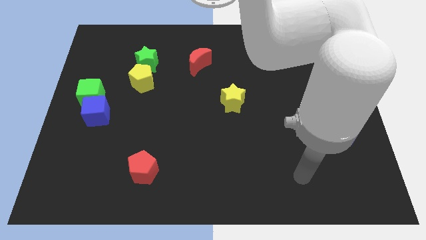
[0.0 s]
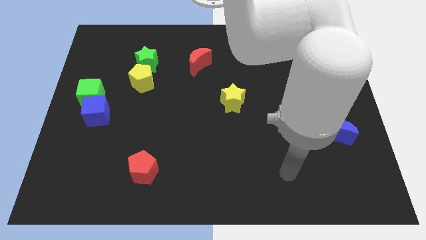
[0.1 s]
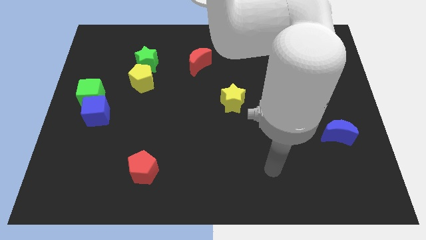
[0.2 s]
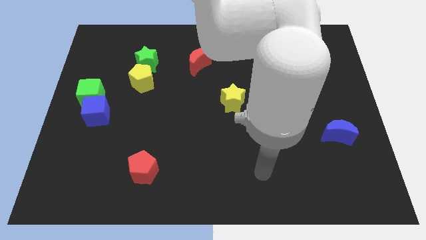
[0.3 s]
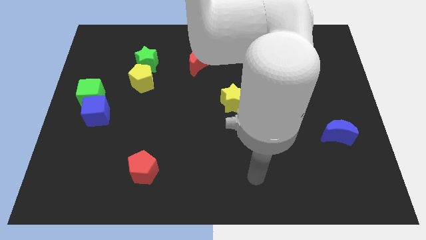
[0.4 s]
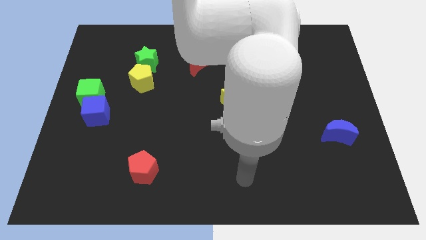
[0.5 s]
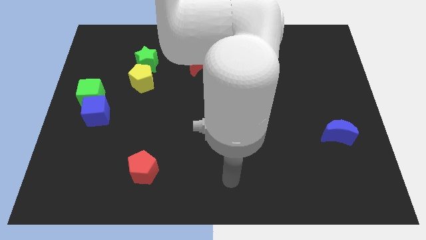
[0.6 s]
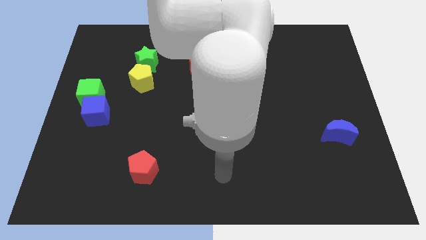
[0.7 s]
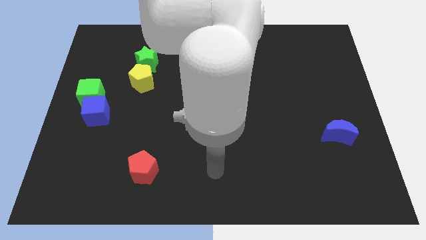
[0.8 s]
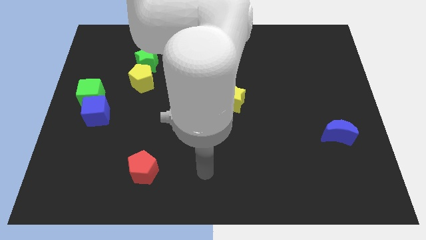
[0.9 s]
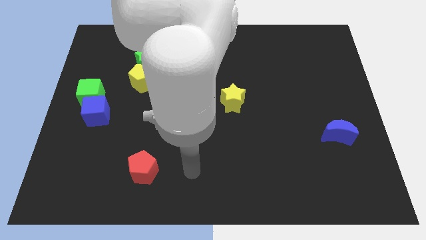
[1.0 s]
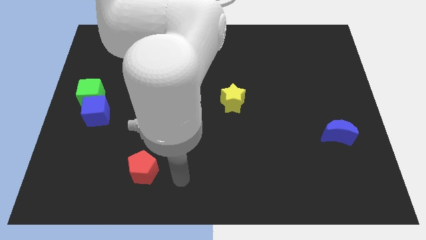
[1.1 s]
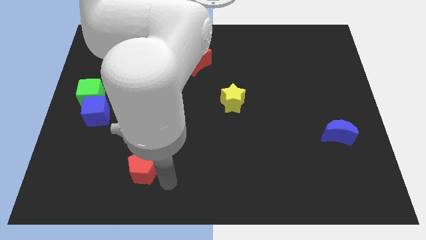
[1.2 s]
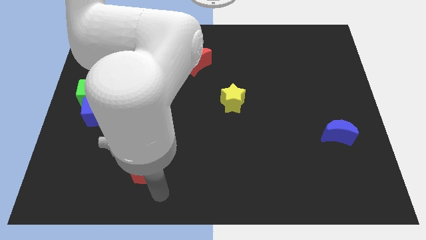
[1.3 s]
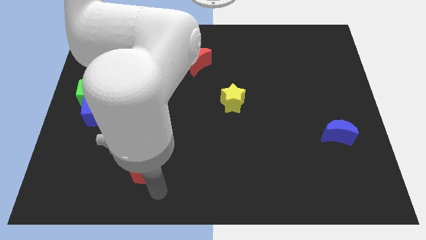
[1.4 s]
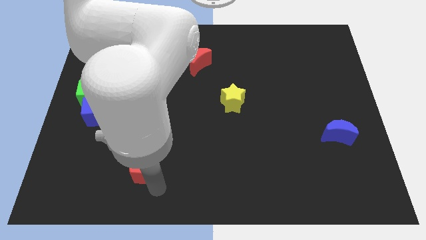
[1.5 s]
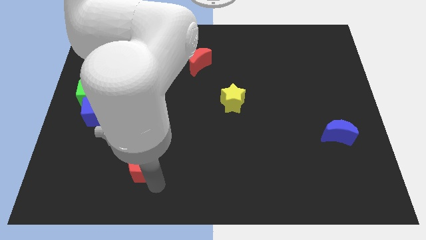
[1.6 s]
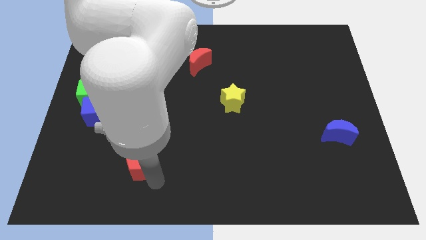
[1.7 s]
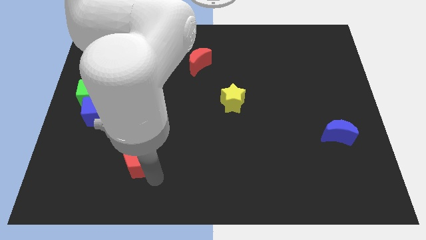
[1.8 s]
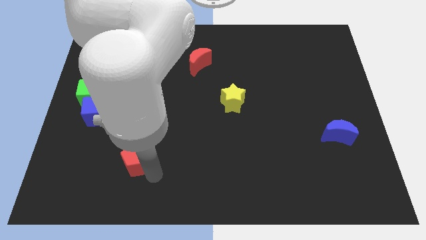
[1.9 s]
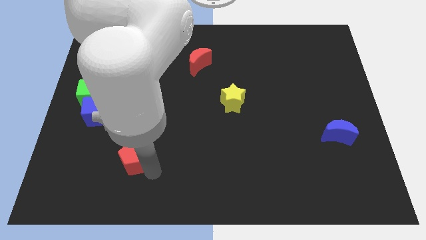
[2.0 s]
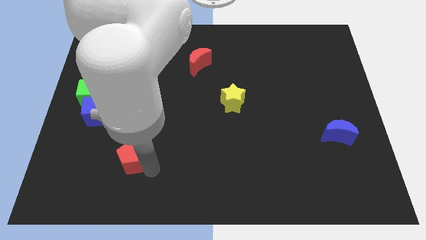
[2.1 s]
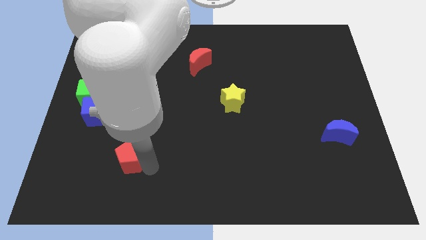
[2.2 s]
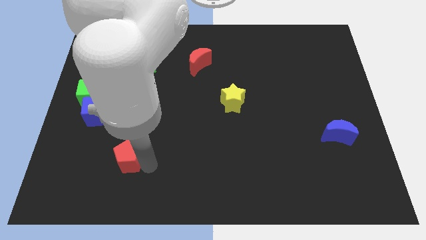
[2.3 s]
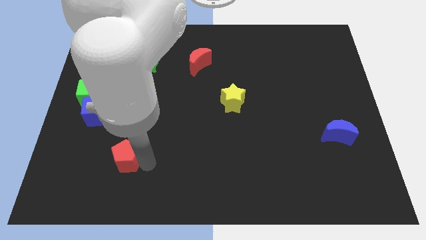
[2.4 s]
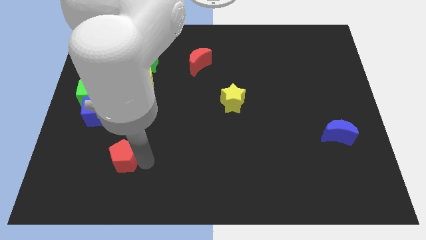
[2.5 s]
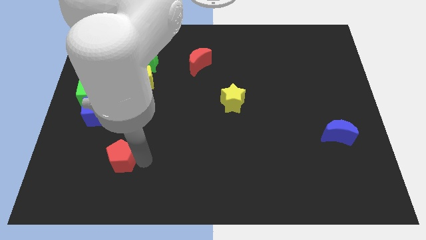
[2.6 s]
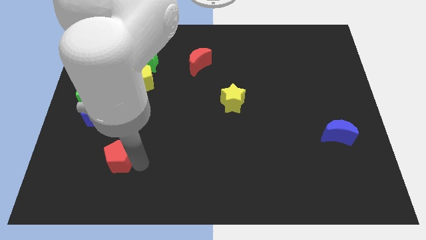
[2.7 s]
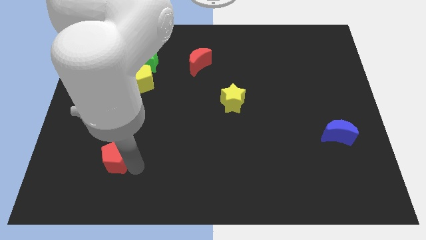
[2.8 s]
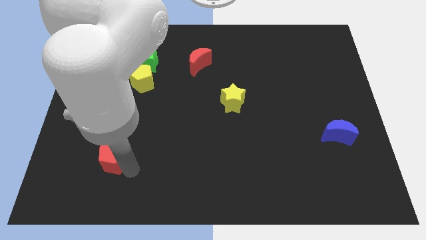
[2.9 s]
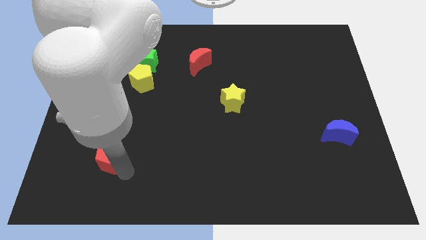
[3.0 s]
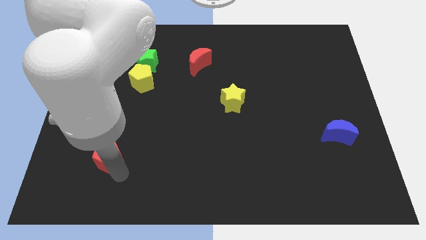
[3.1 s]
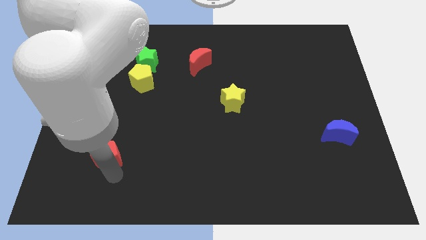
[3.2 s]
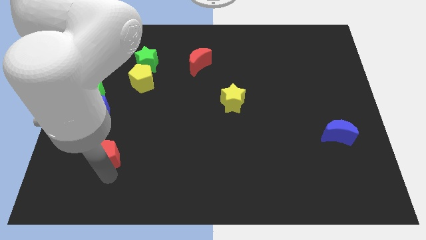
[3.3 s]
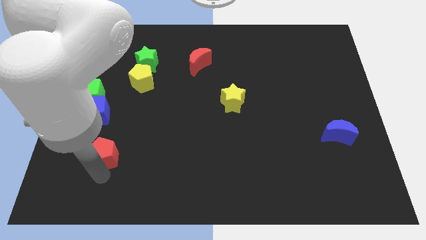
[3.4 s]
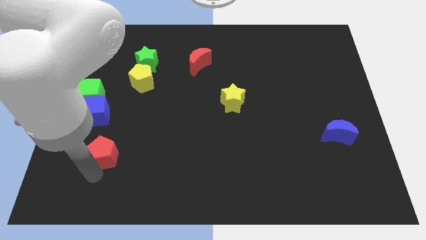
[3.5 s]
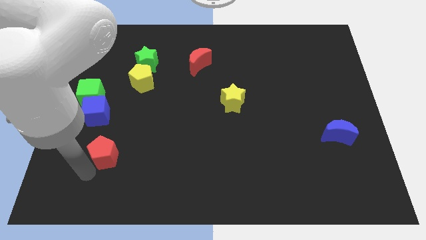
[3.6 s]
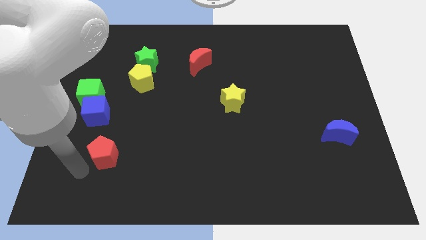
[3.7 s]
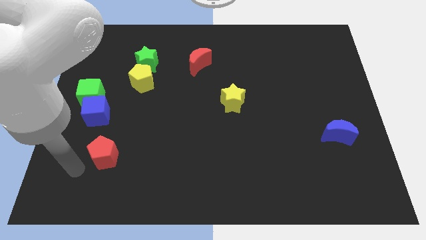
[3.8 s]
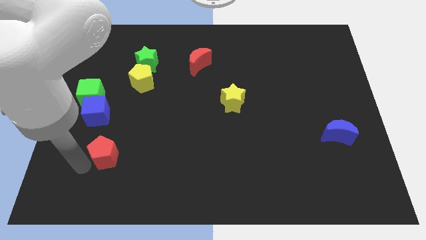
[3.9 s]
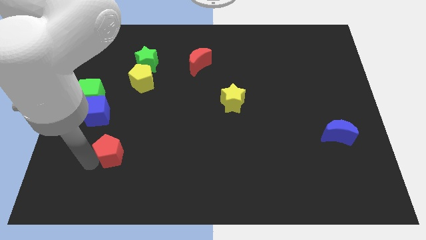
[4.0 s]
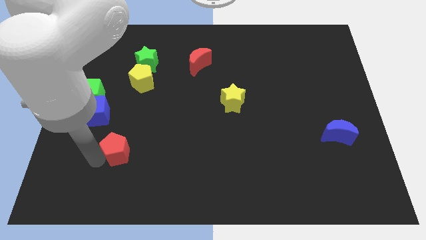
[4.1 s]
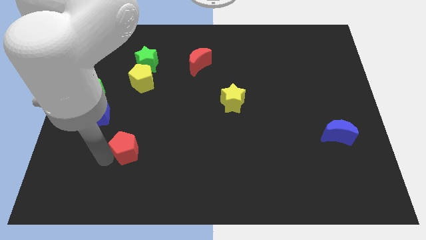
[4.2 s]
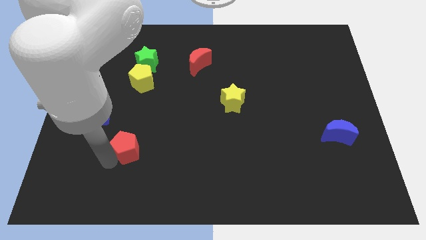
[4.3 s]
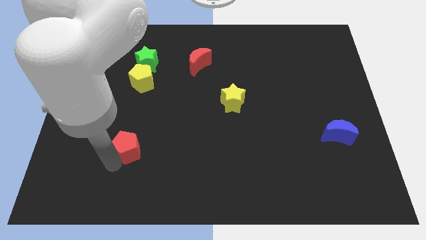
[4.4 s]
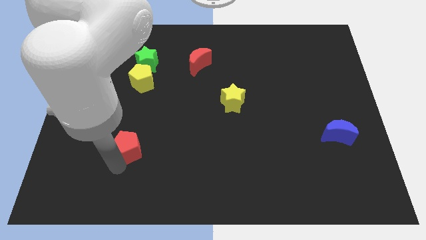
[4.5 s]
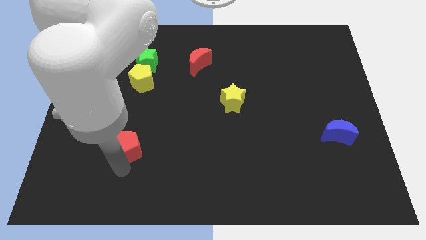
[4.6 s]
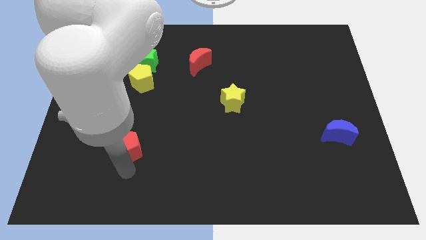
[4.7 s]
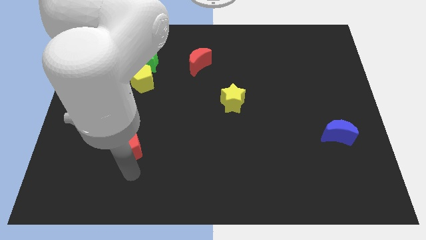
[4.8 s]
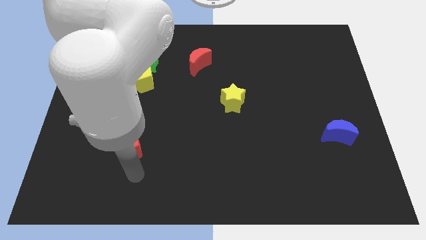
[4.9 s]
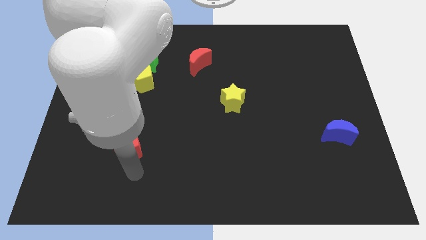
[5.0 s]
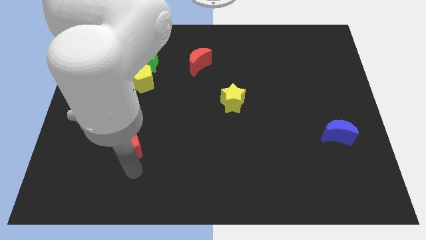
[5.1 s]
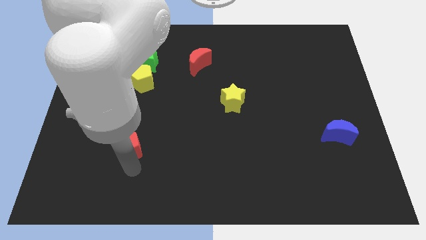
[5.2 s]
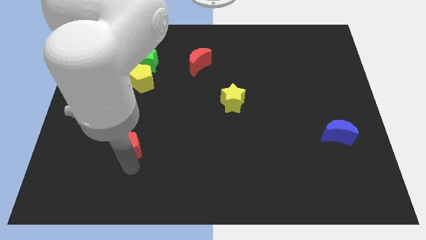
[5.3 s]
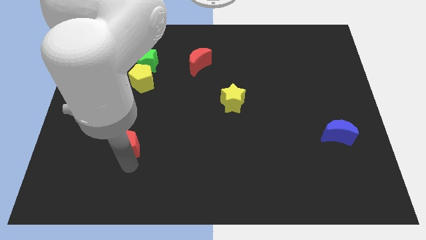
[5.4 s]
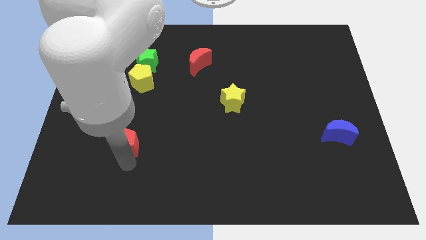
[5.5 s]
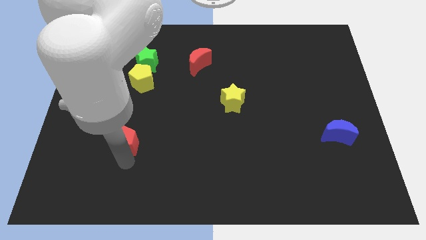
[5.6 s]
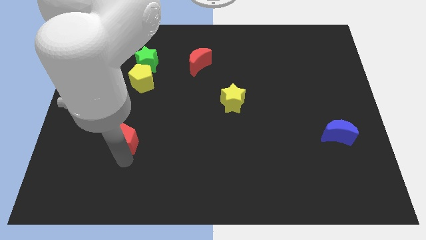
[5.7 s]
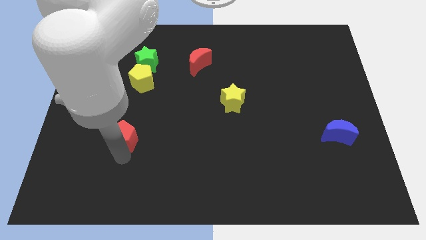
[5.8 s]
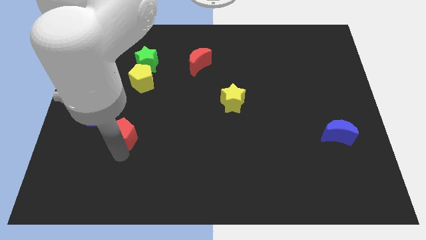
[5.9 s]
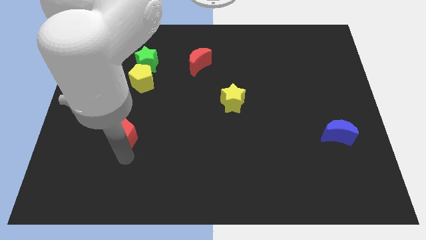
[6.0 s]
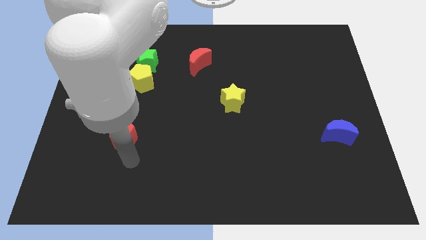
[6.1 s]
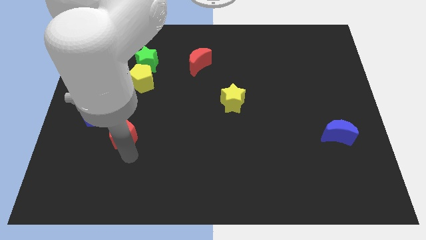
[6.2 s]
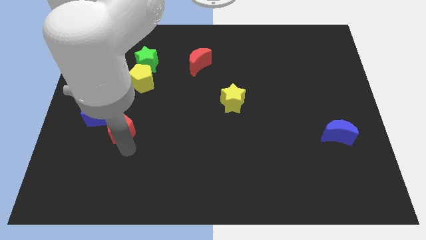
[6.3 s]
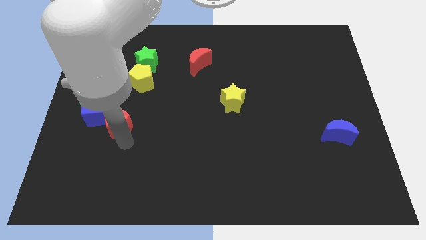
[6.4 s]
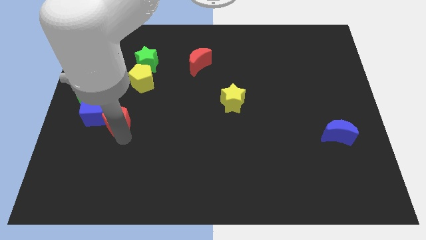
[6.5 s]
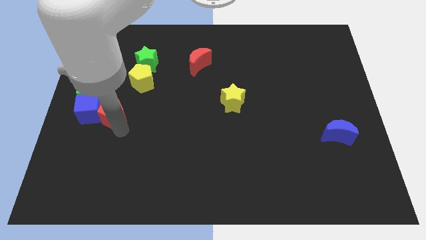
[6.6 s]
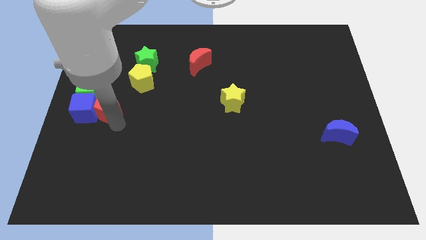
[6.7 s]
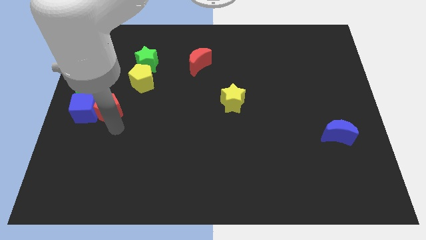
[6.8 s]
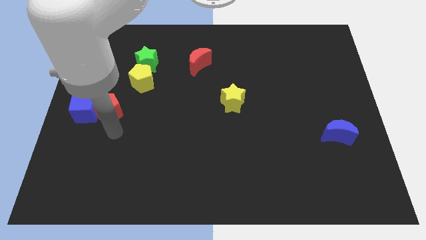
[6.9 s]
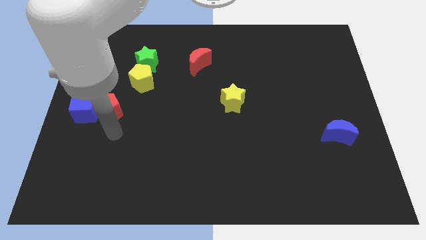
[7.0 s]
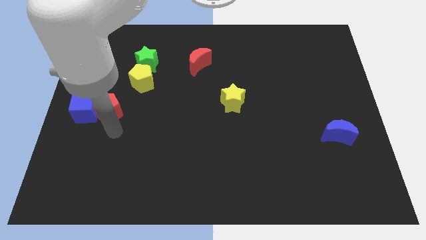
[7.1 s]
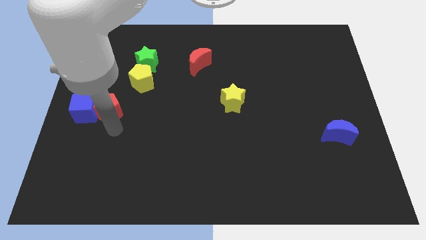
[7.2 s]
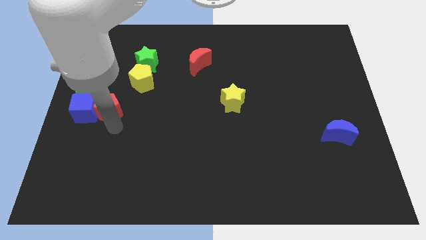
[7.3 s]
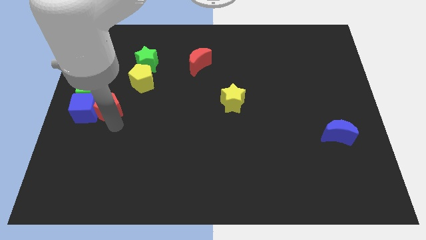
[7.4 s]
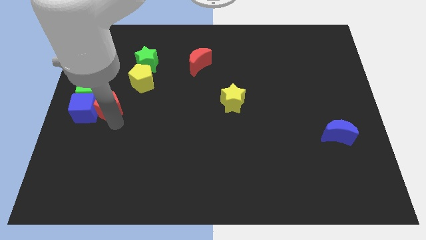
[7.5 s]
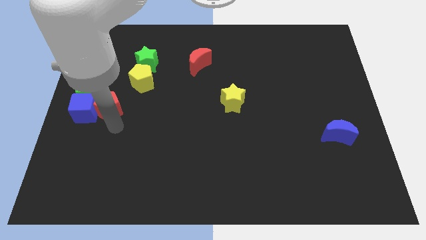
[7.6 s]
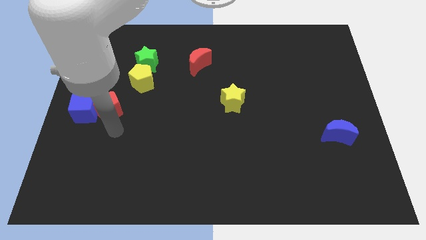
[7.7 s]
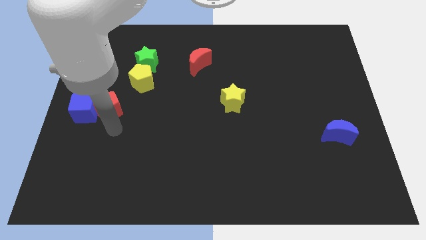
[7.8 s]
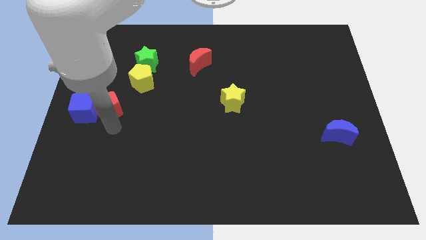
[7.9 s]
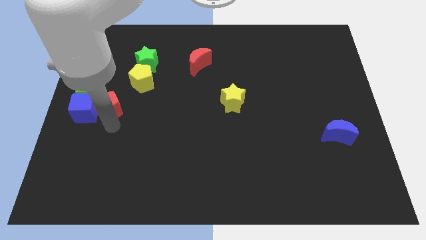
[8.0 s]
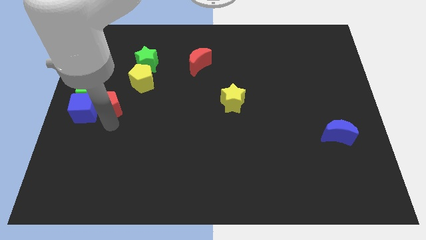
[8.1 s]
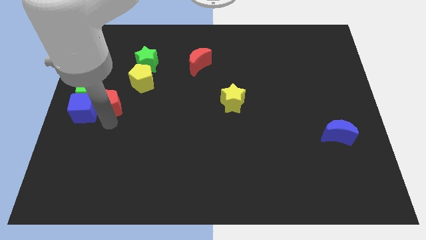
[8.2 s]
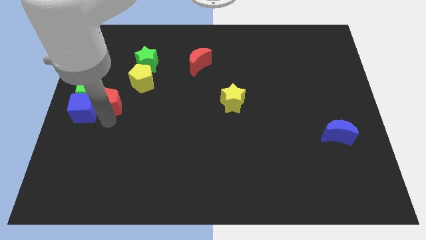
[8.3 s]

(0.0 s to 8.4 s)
put the red pentagon to the green cube
